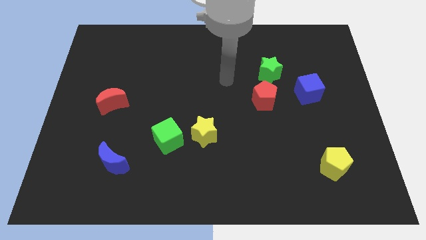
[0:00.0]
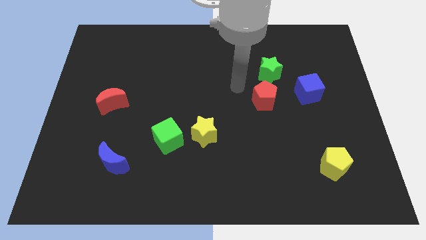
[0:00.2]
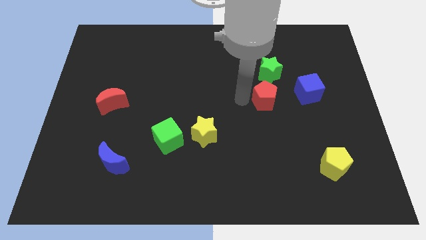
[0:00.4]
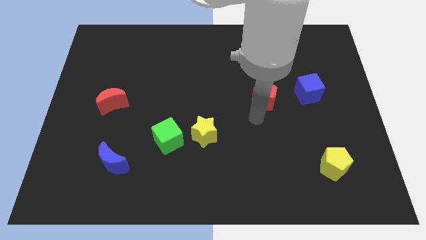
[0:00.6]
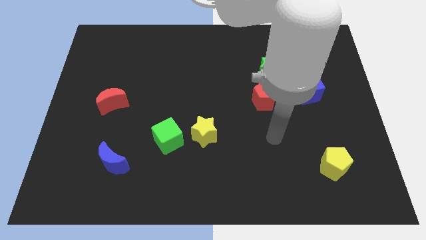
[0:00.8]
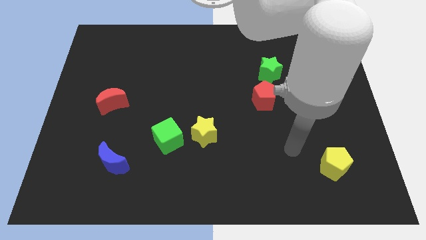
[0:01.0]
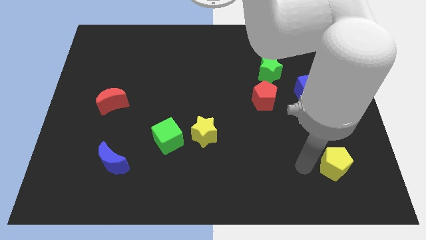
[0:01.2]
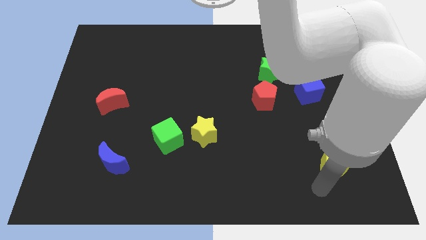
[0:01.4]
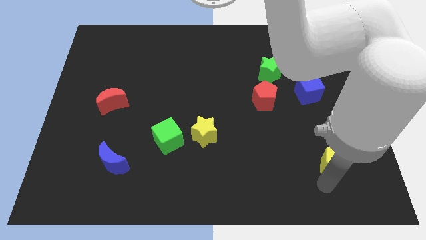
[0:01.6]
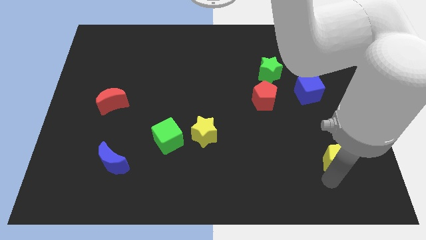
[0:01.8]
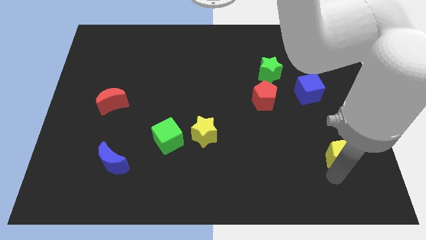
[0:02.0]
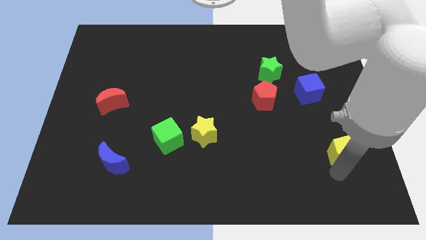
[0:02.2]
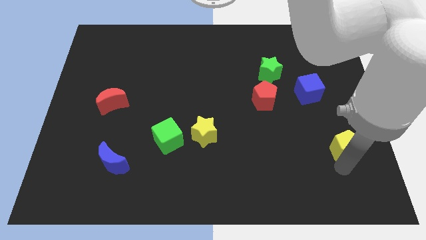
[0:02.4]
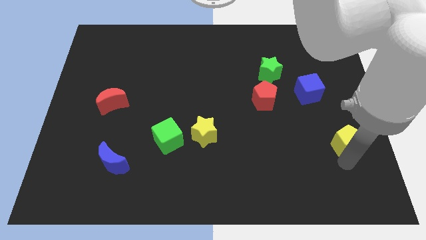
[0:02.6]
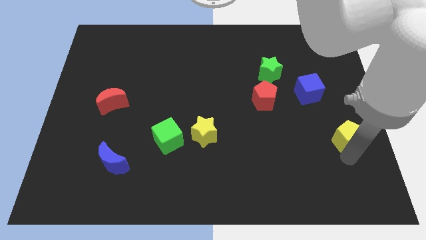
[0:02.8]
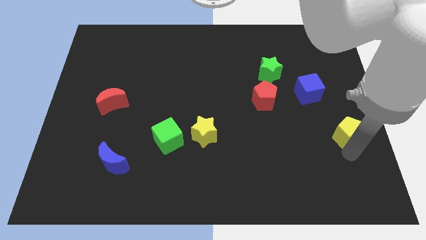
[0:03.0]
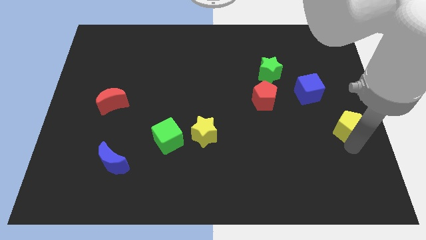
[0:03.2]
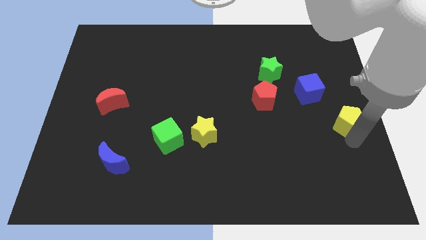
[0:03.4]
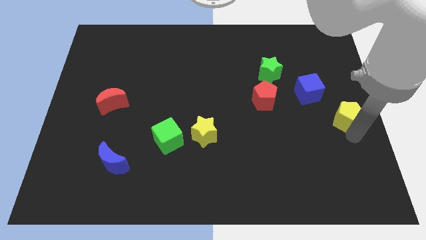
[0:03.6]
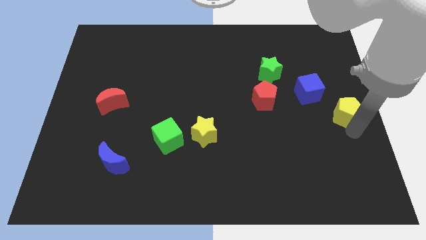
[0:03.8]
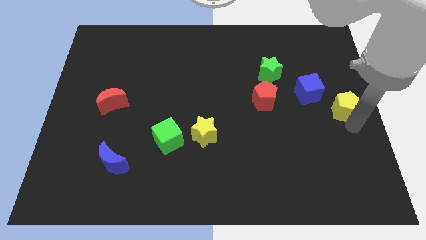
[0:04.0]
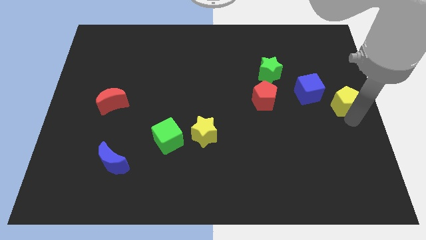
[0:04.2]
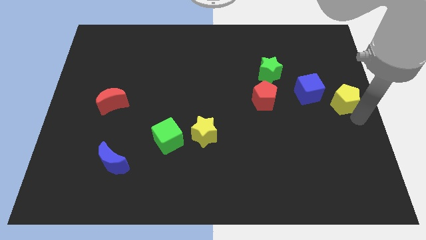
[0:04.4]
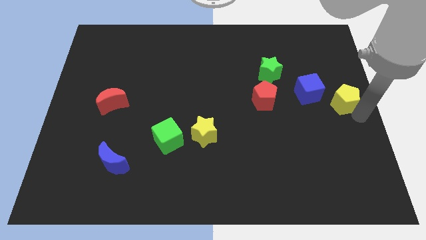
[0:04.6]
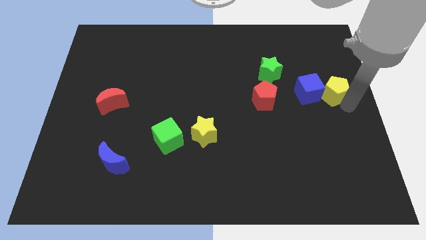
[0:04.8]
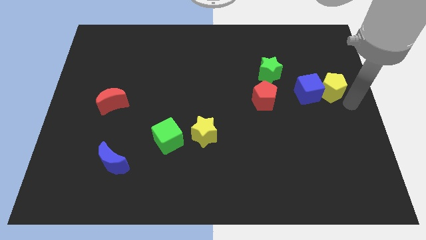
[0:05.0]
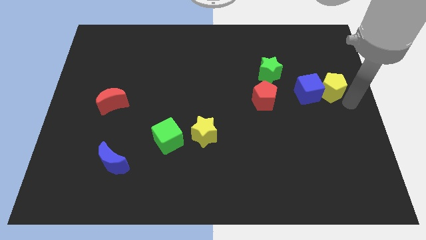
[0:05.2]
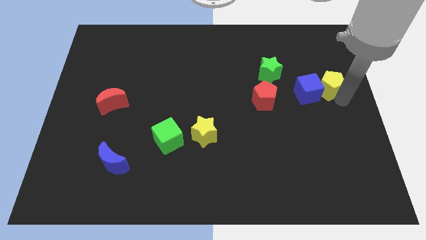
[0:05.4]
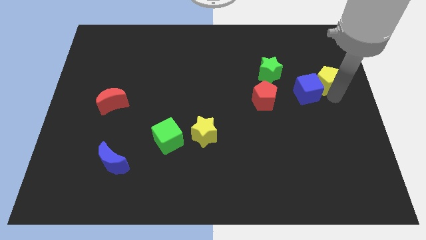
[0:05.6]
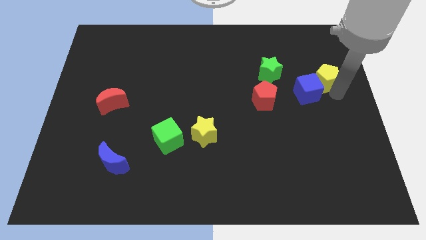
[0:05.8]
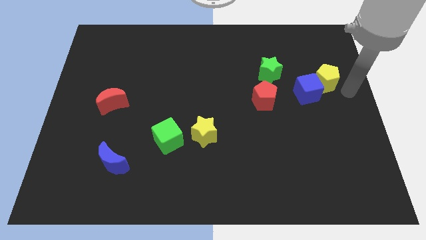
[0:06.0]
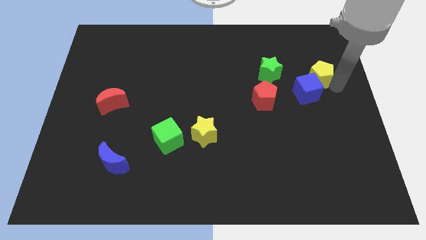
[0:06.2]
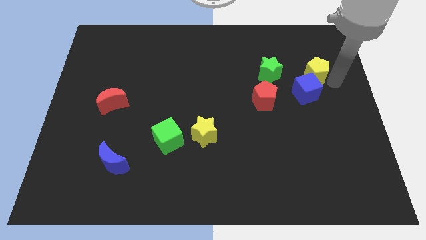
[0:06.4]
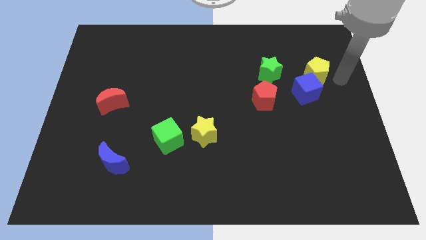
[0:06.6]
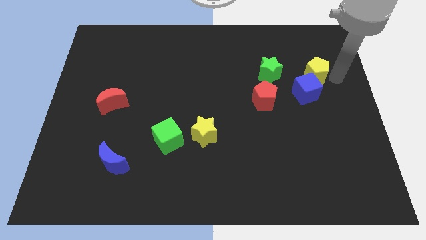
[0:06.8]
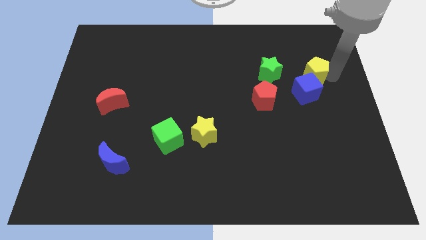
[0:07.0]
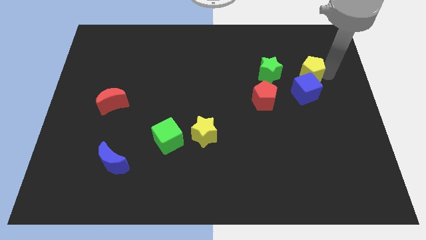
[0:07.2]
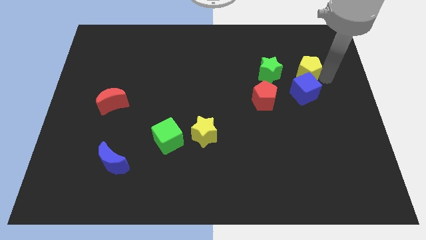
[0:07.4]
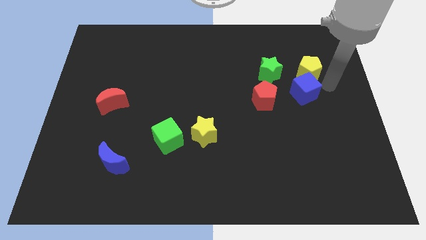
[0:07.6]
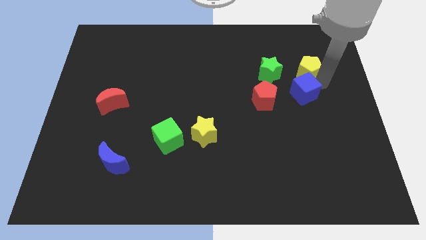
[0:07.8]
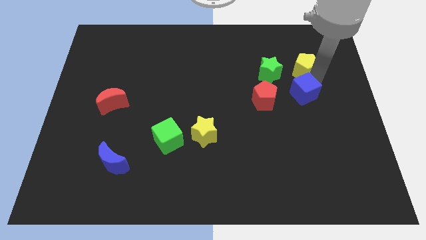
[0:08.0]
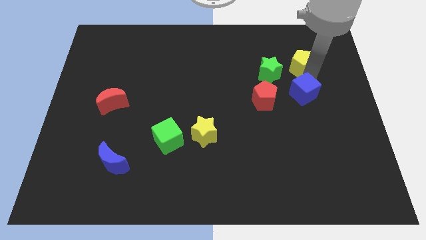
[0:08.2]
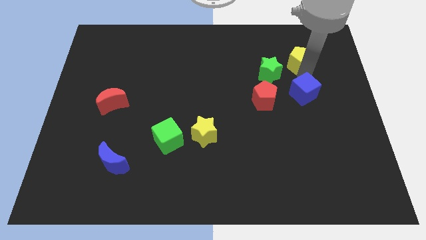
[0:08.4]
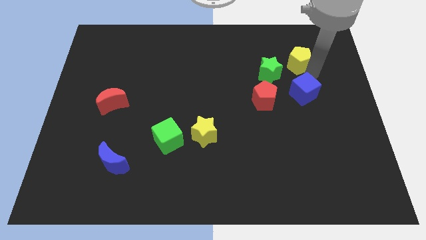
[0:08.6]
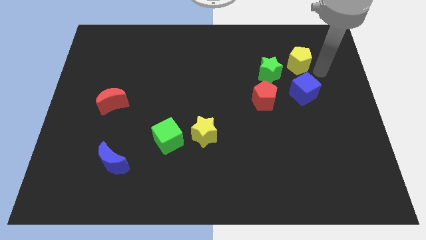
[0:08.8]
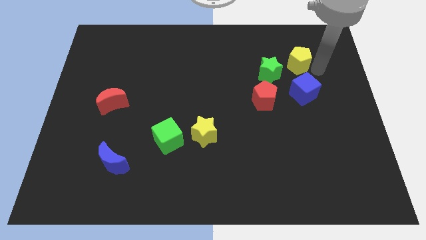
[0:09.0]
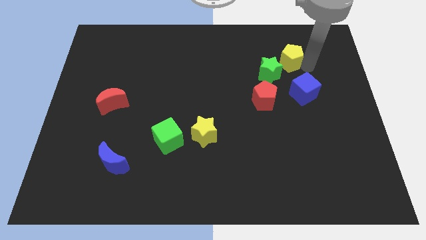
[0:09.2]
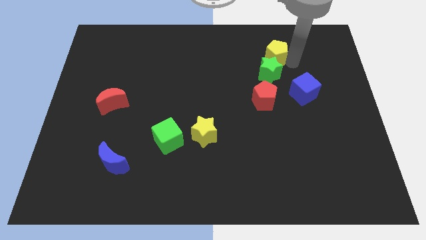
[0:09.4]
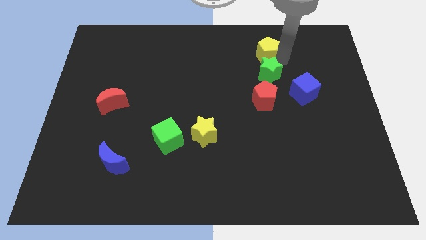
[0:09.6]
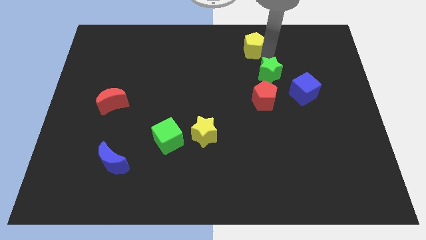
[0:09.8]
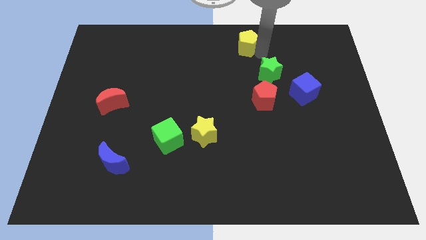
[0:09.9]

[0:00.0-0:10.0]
put the yellow pentagon to the top side
